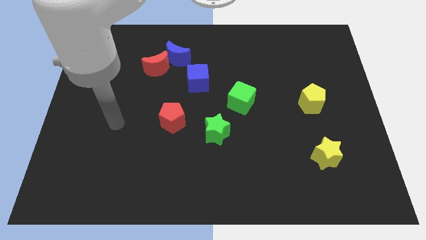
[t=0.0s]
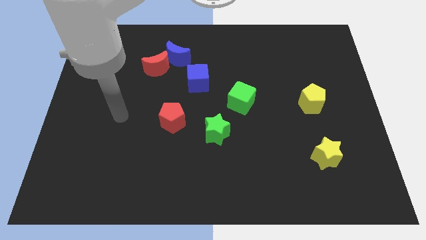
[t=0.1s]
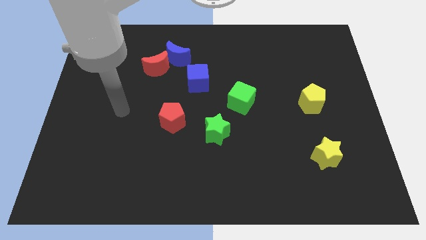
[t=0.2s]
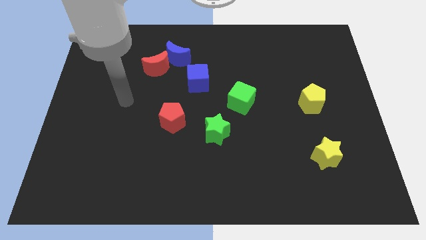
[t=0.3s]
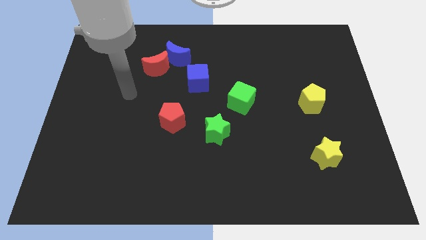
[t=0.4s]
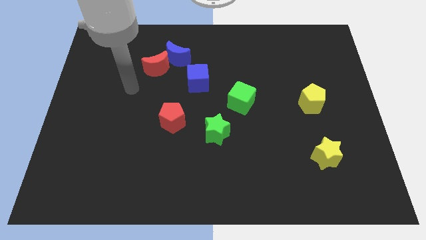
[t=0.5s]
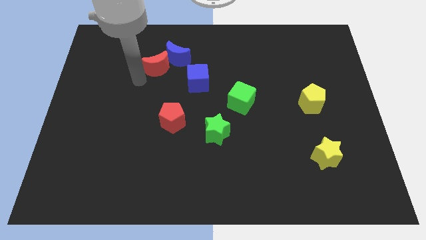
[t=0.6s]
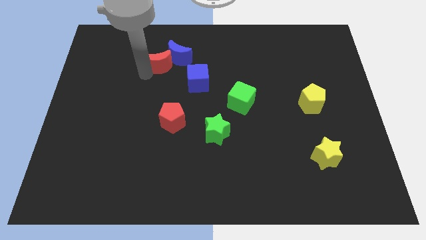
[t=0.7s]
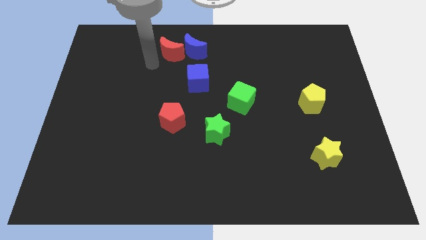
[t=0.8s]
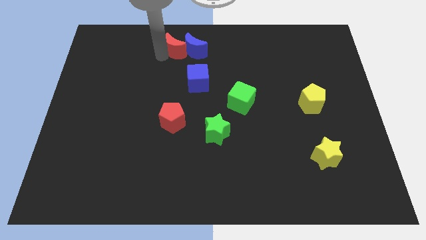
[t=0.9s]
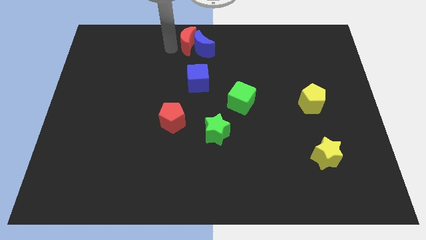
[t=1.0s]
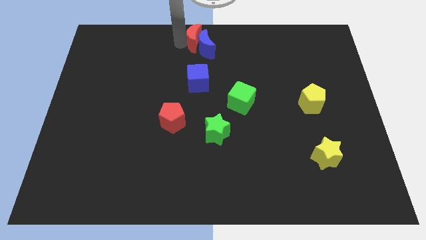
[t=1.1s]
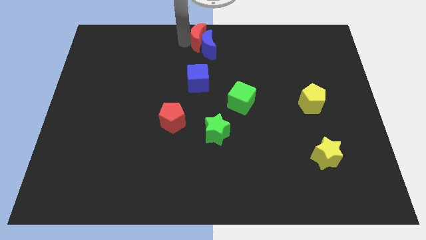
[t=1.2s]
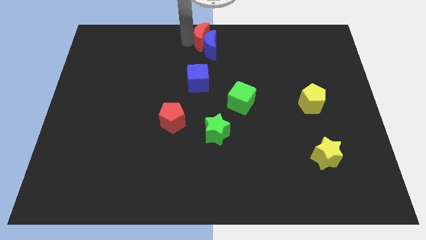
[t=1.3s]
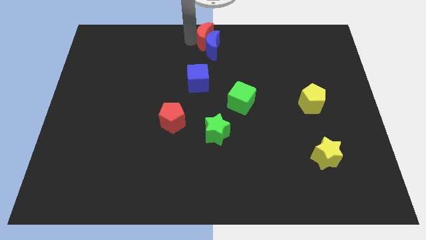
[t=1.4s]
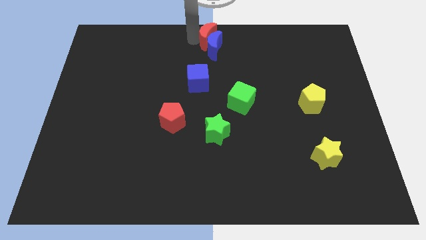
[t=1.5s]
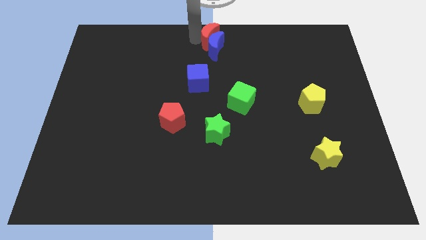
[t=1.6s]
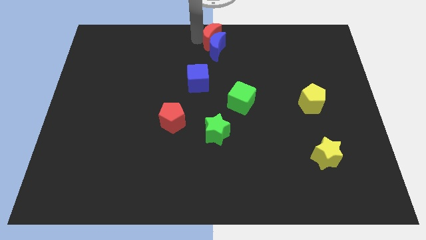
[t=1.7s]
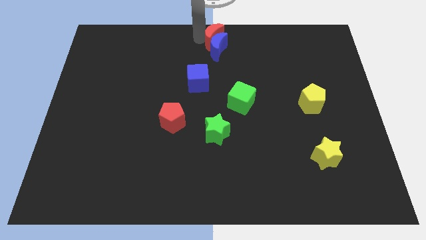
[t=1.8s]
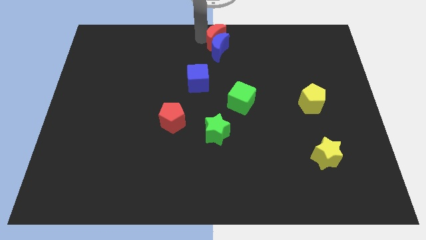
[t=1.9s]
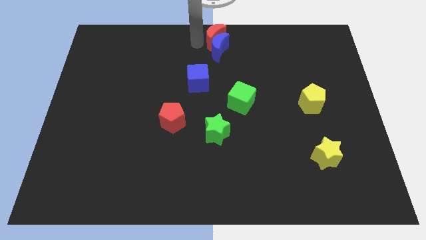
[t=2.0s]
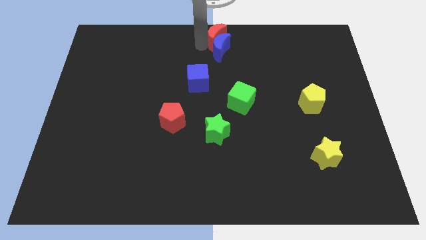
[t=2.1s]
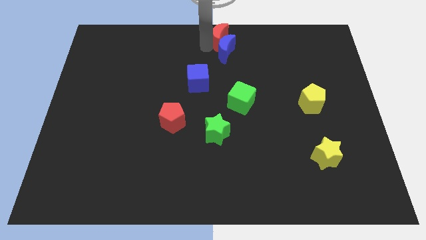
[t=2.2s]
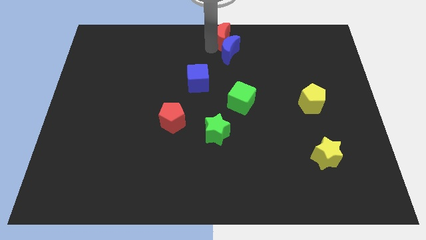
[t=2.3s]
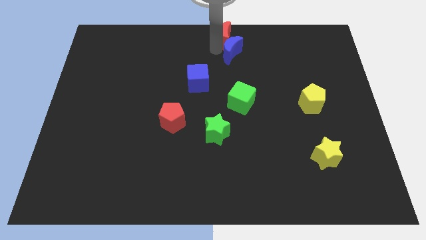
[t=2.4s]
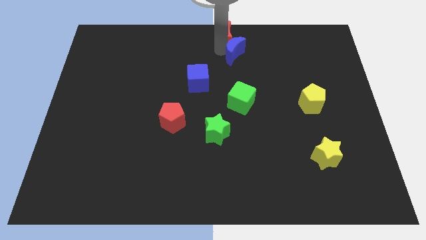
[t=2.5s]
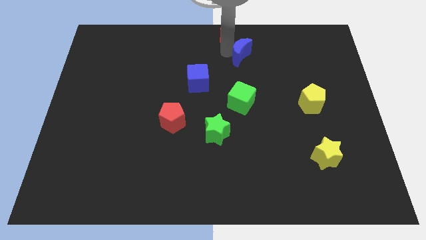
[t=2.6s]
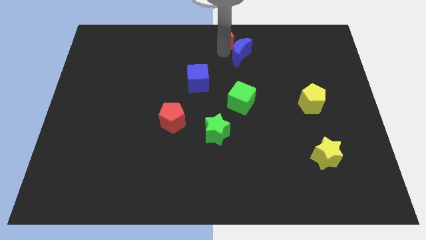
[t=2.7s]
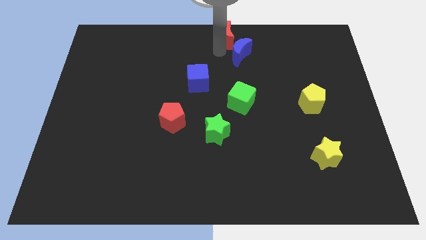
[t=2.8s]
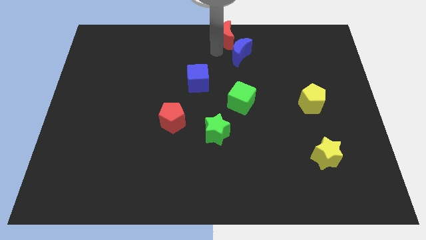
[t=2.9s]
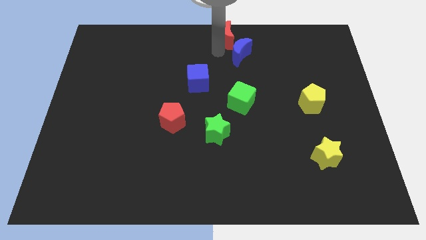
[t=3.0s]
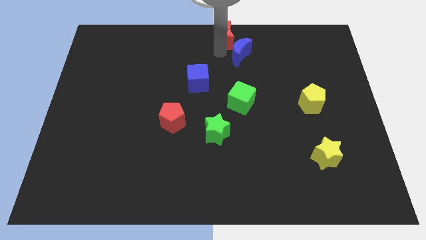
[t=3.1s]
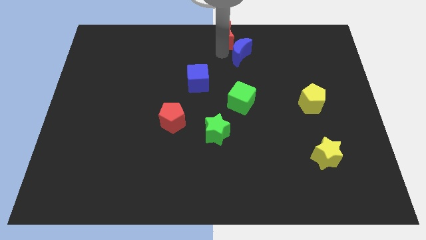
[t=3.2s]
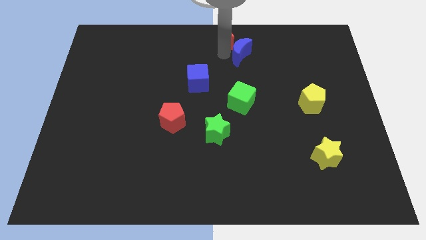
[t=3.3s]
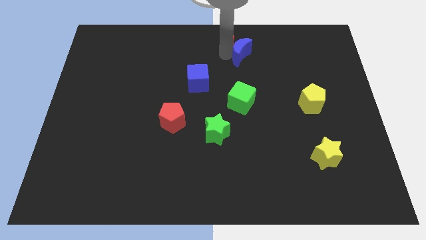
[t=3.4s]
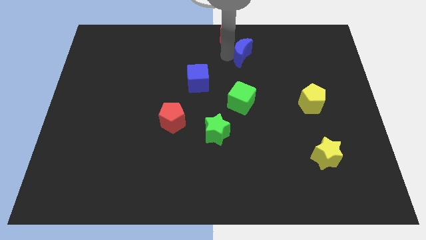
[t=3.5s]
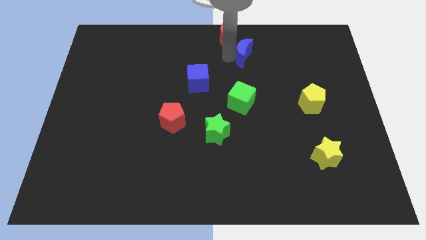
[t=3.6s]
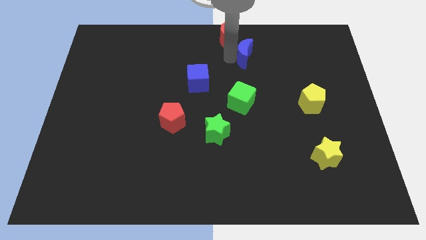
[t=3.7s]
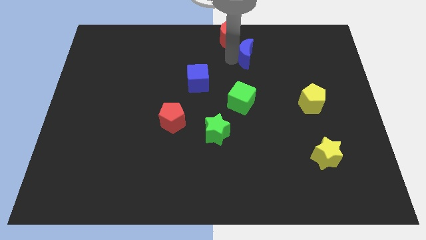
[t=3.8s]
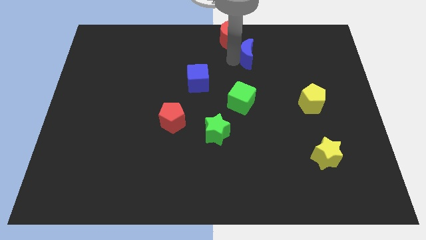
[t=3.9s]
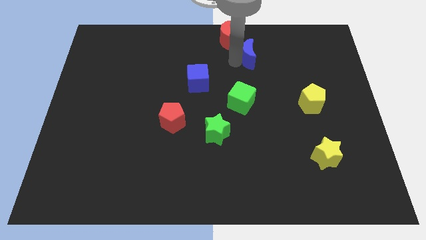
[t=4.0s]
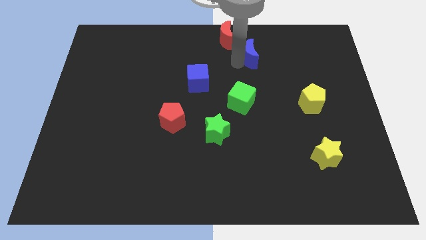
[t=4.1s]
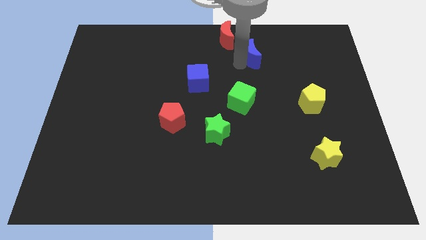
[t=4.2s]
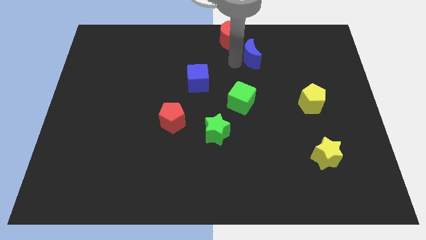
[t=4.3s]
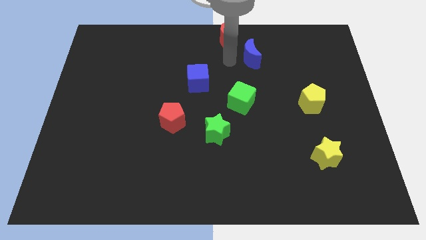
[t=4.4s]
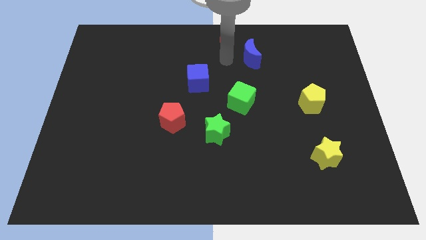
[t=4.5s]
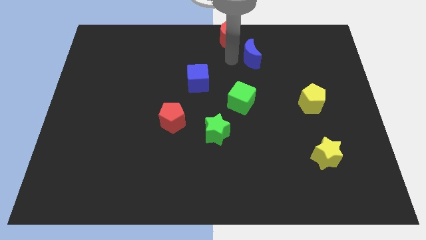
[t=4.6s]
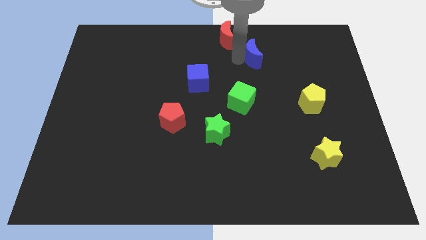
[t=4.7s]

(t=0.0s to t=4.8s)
push the blue moon right

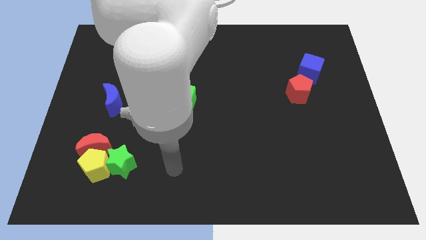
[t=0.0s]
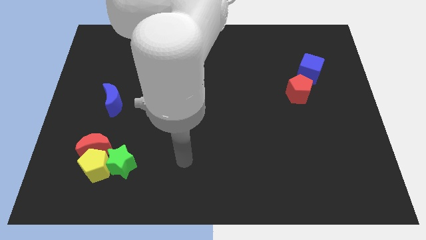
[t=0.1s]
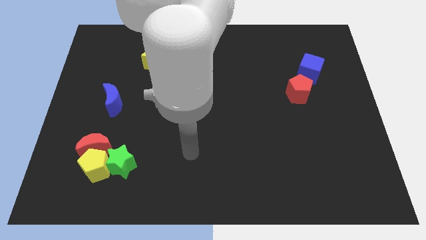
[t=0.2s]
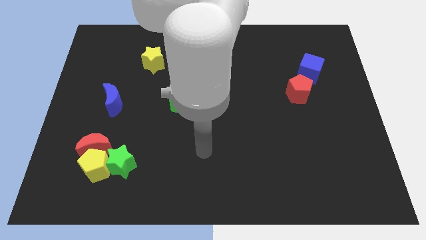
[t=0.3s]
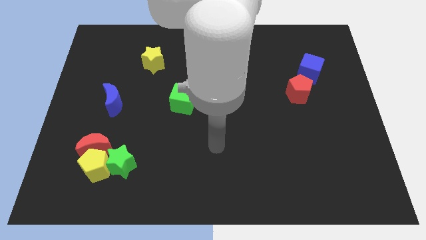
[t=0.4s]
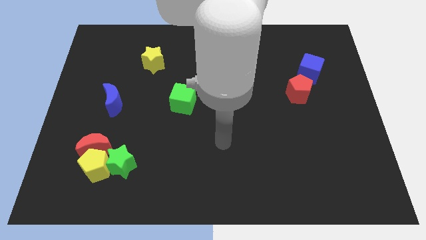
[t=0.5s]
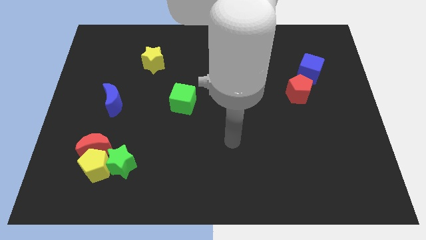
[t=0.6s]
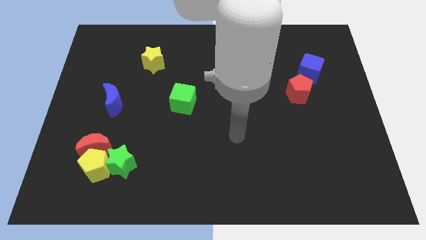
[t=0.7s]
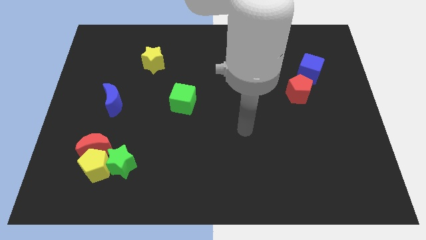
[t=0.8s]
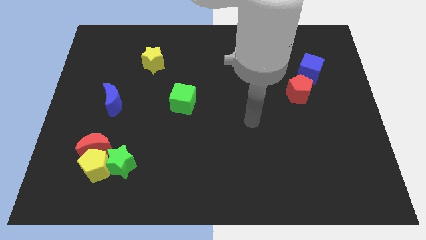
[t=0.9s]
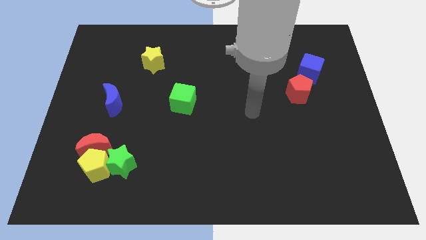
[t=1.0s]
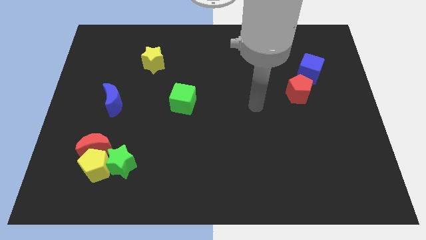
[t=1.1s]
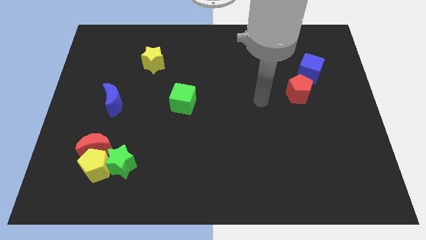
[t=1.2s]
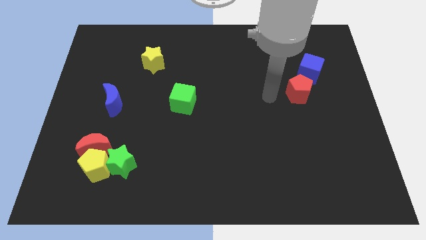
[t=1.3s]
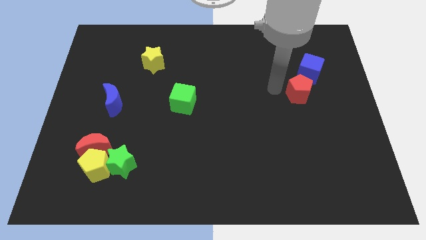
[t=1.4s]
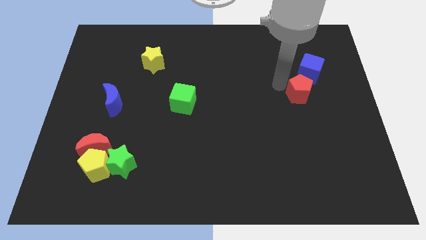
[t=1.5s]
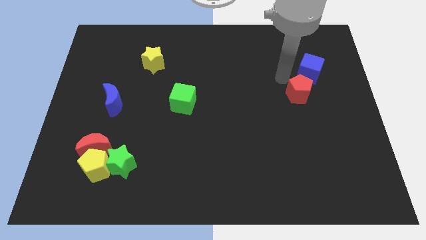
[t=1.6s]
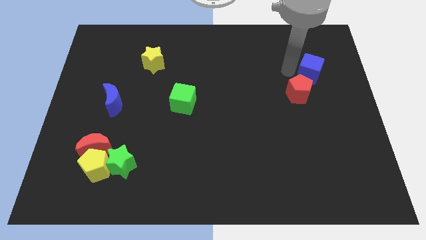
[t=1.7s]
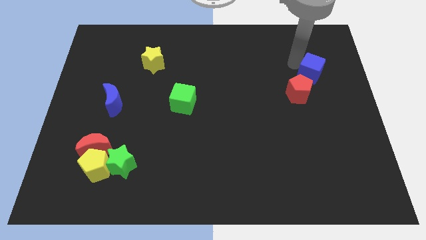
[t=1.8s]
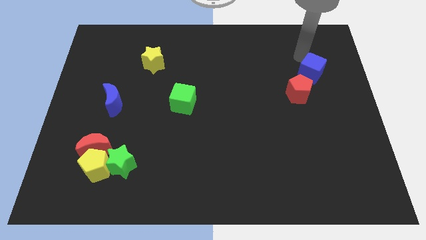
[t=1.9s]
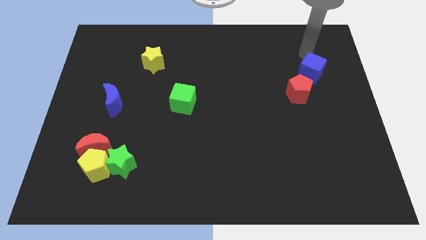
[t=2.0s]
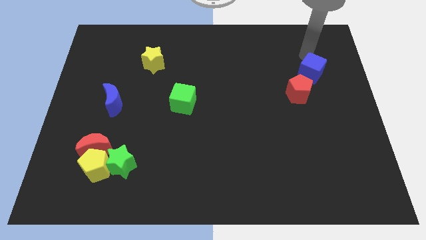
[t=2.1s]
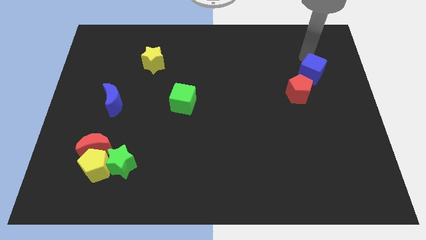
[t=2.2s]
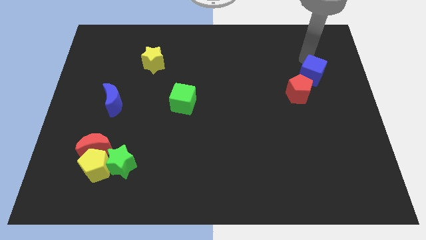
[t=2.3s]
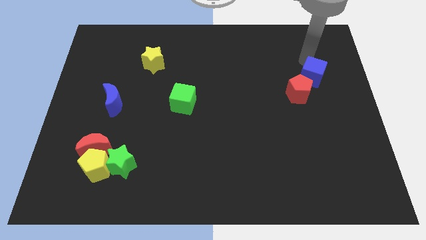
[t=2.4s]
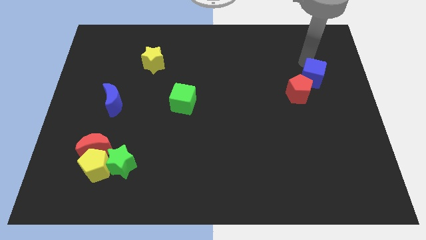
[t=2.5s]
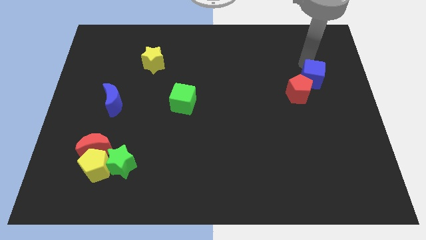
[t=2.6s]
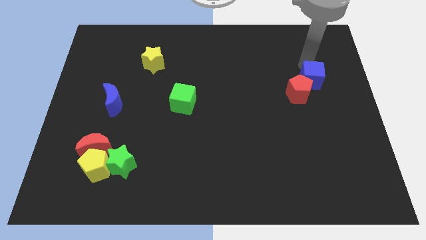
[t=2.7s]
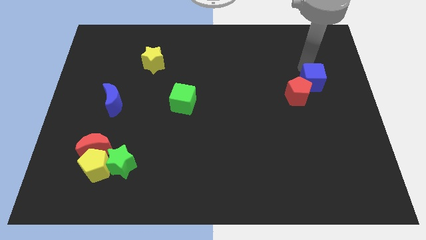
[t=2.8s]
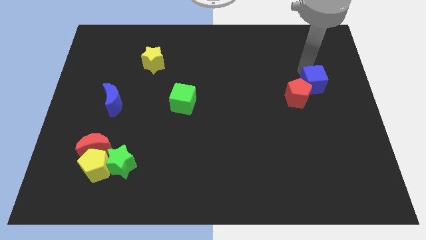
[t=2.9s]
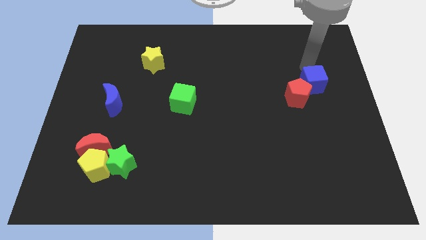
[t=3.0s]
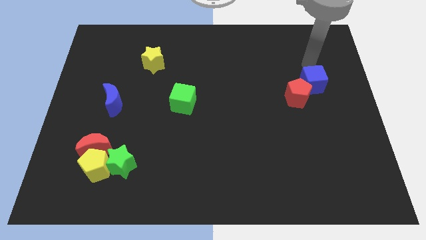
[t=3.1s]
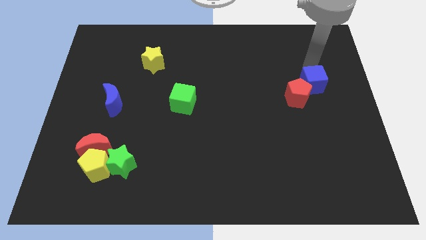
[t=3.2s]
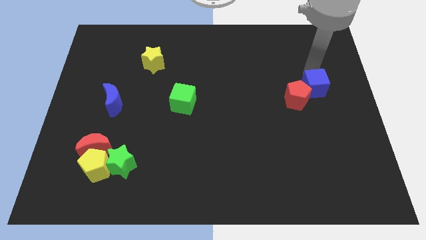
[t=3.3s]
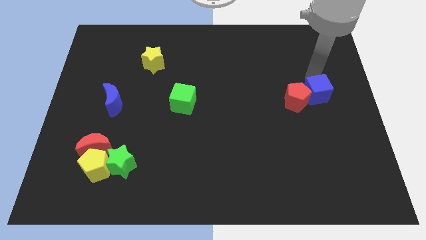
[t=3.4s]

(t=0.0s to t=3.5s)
slightly push the blue cube downwards

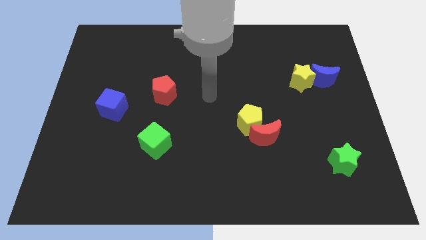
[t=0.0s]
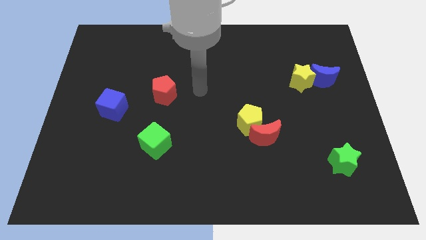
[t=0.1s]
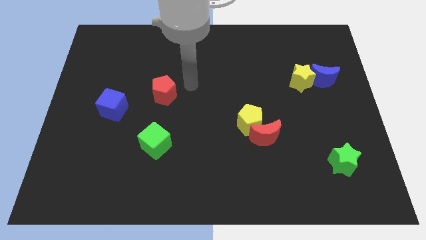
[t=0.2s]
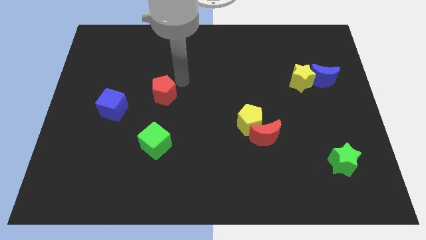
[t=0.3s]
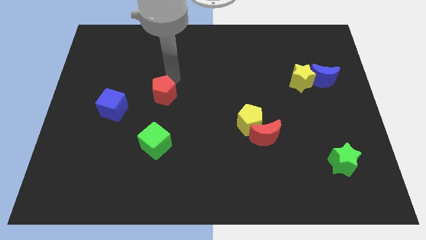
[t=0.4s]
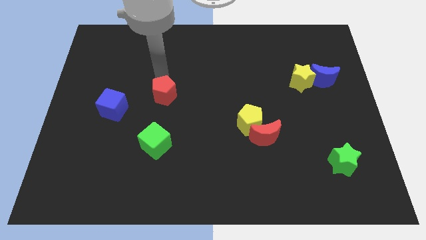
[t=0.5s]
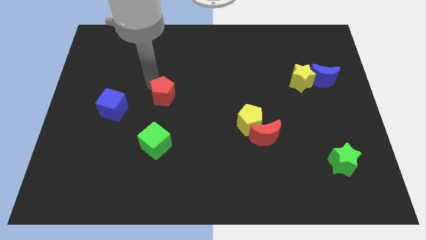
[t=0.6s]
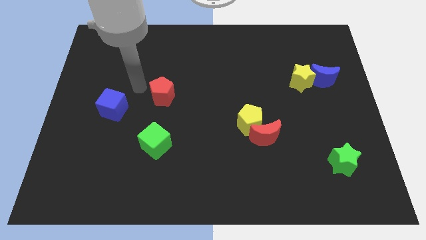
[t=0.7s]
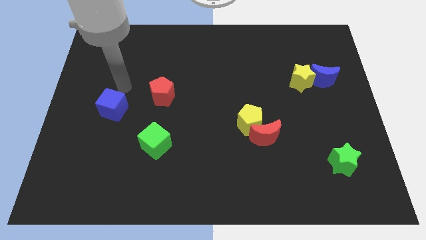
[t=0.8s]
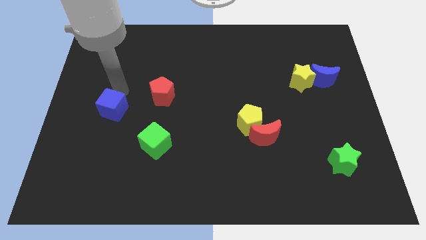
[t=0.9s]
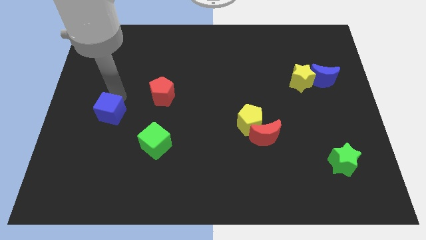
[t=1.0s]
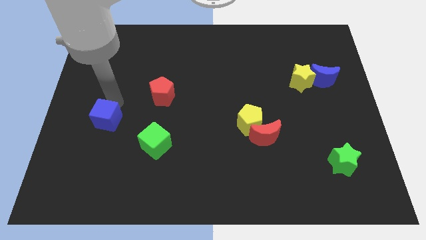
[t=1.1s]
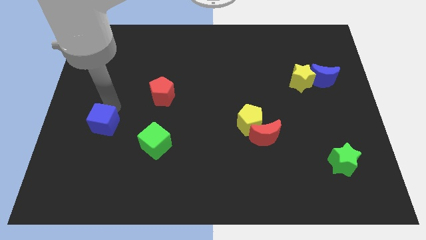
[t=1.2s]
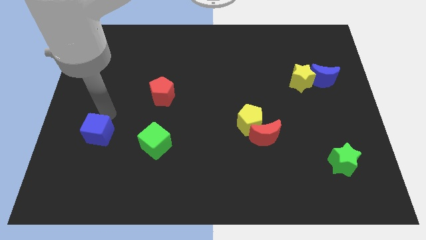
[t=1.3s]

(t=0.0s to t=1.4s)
slightly move the blue cube downwards
